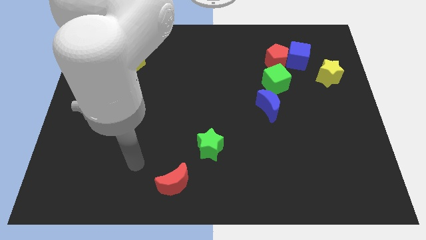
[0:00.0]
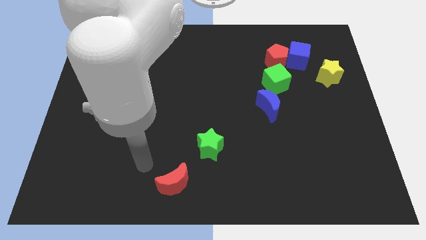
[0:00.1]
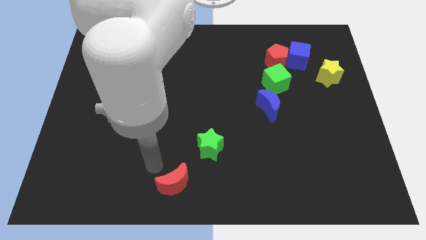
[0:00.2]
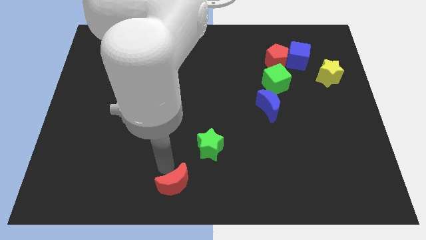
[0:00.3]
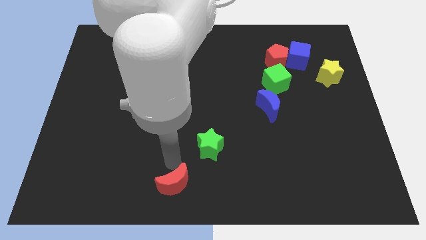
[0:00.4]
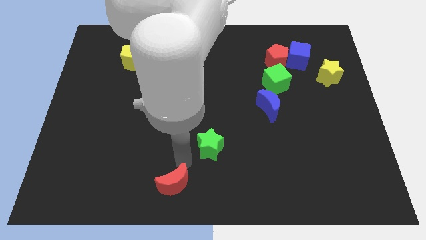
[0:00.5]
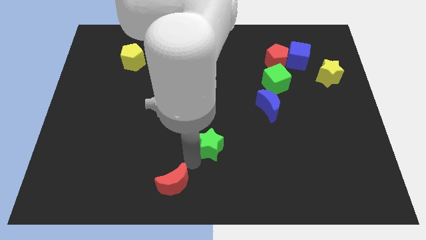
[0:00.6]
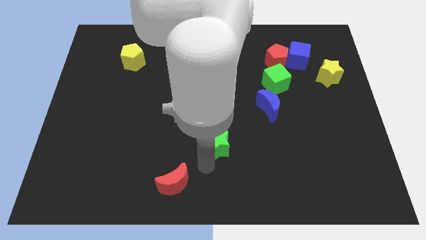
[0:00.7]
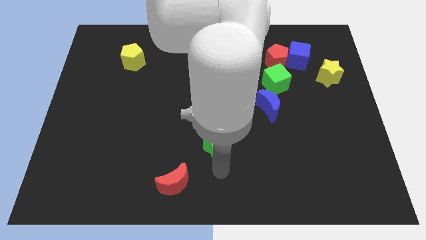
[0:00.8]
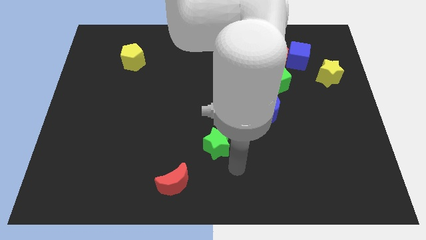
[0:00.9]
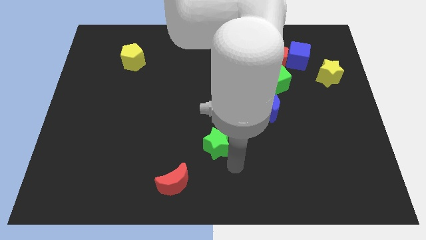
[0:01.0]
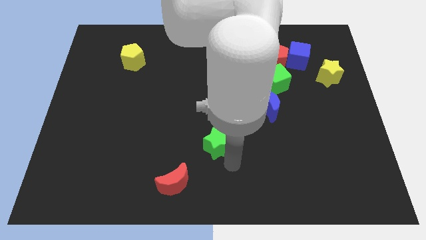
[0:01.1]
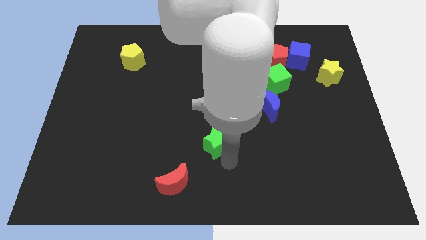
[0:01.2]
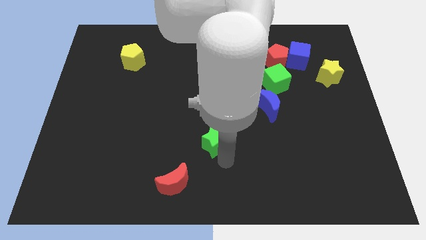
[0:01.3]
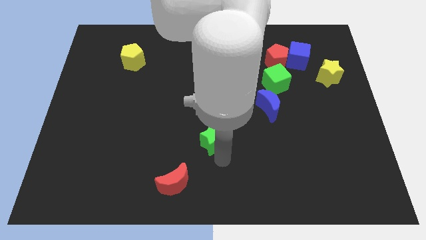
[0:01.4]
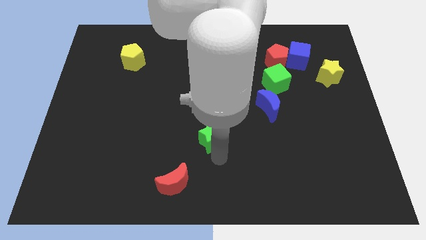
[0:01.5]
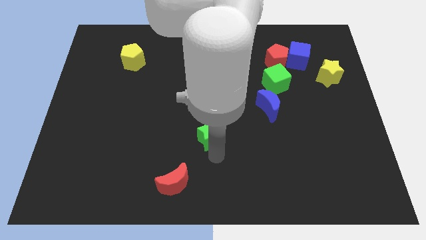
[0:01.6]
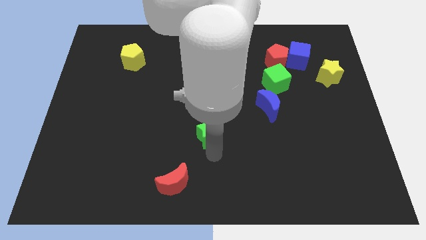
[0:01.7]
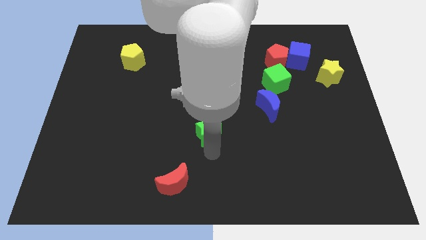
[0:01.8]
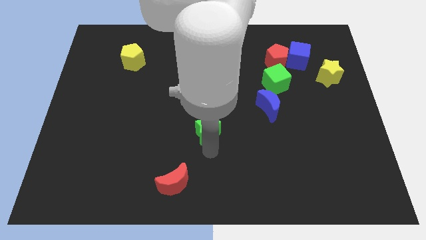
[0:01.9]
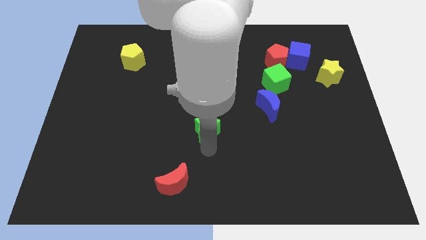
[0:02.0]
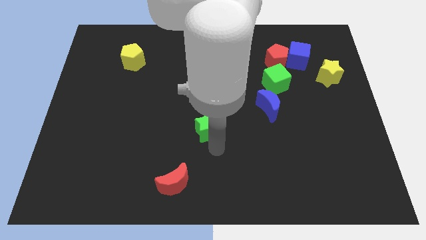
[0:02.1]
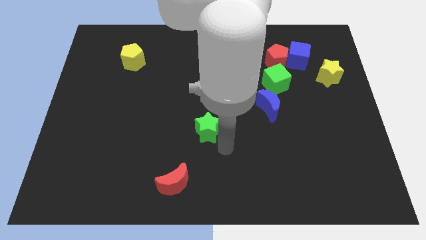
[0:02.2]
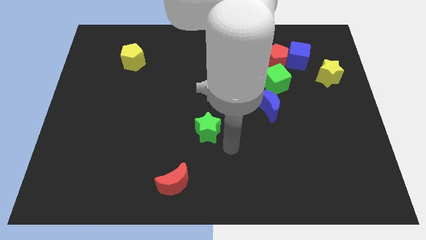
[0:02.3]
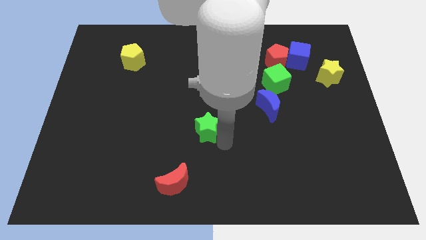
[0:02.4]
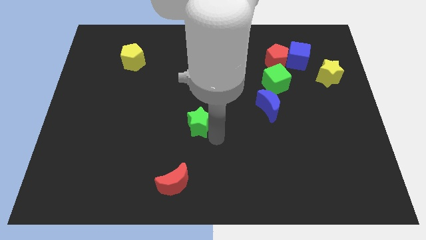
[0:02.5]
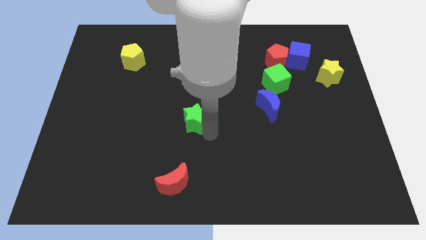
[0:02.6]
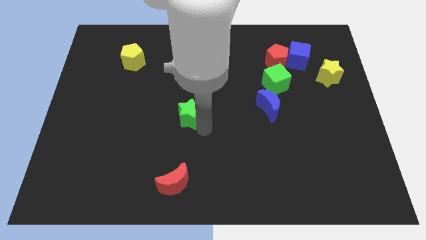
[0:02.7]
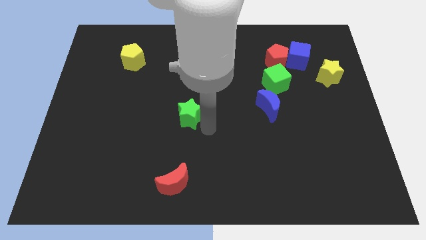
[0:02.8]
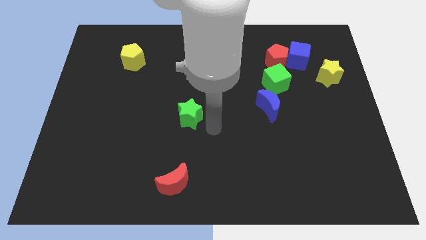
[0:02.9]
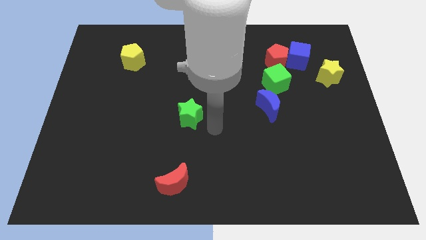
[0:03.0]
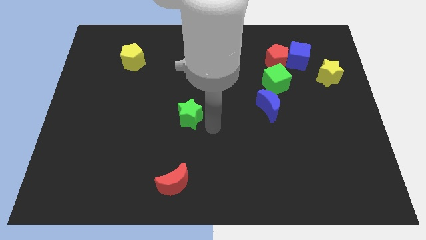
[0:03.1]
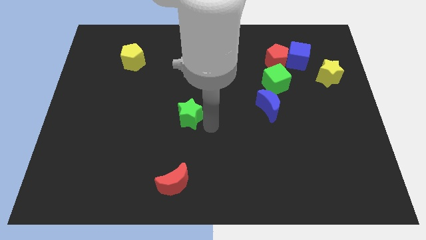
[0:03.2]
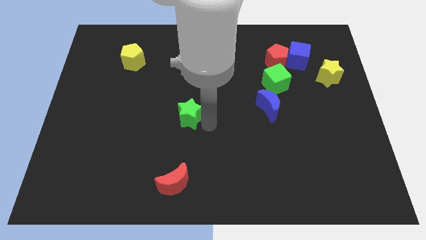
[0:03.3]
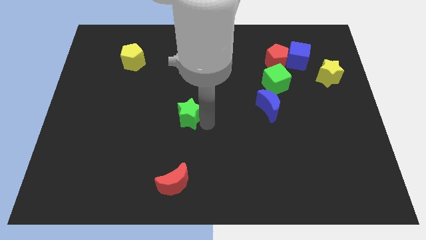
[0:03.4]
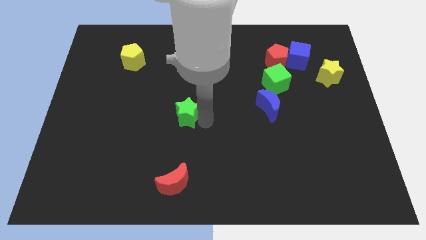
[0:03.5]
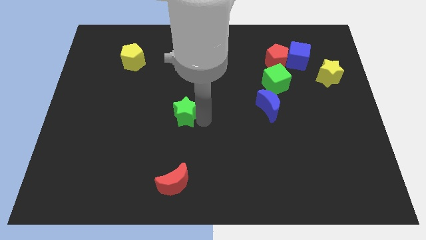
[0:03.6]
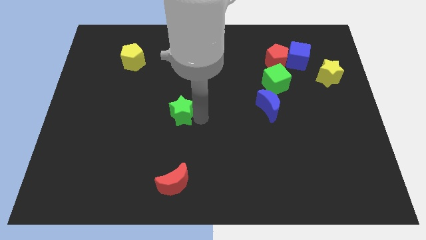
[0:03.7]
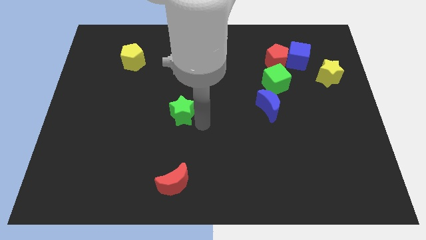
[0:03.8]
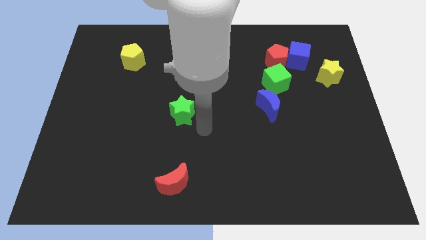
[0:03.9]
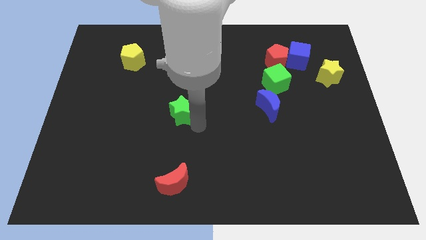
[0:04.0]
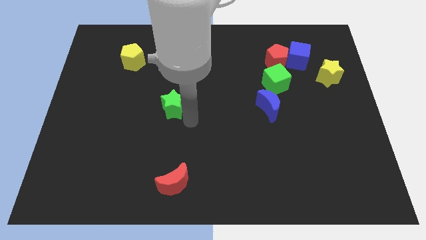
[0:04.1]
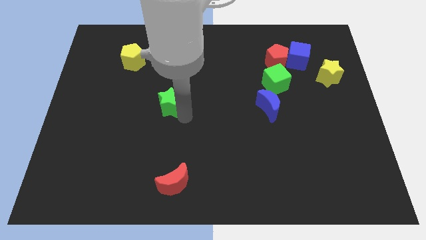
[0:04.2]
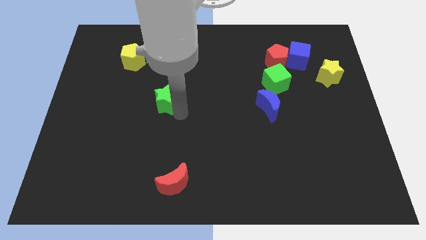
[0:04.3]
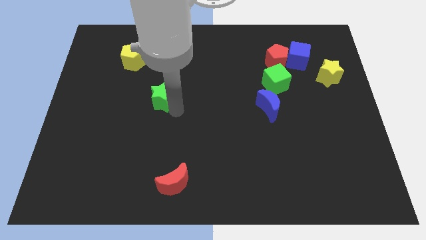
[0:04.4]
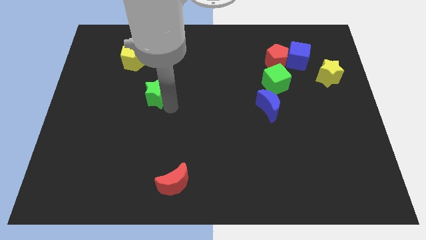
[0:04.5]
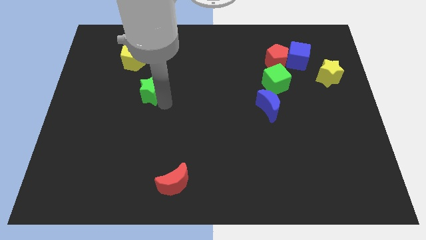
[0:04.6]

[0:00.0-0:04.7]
push the green star diagonally upwards and to the left

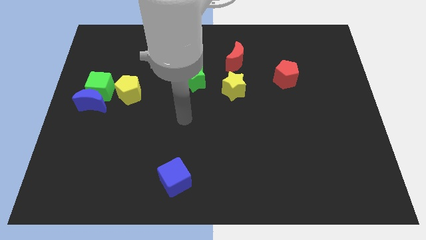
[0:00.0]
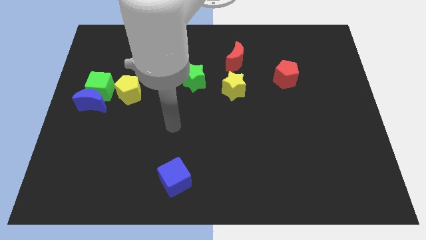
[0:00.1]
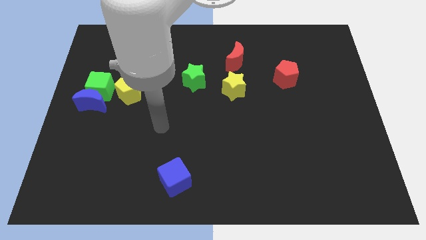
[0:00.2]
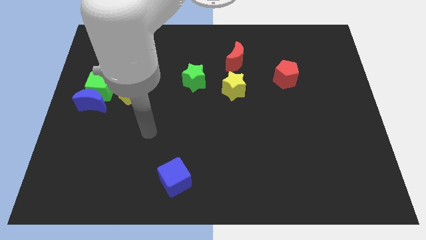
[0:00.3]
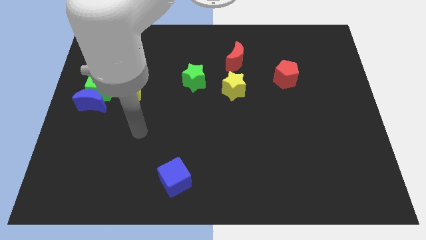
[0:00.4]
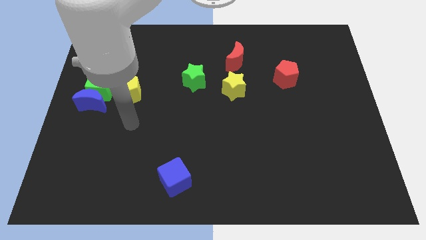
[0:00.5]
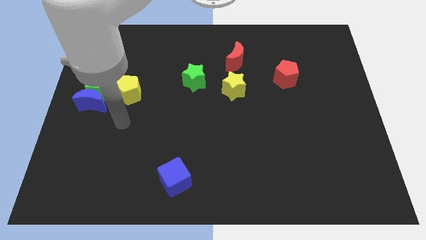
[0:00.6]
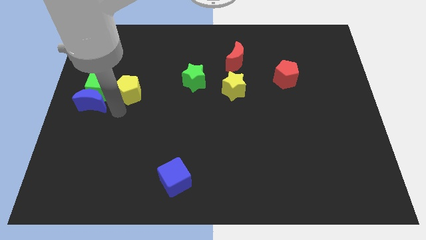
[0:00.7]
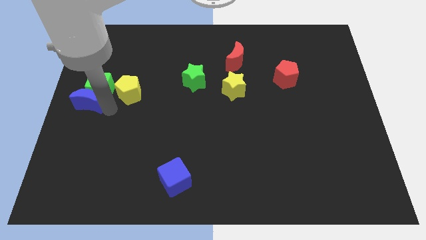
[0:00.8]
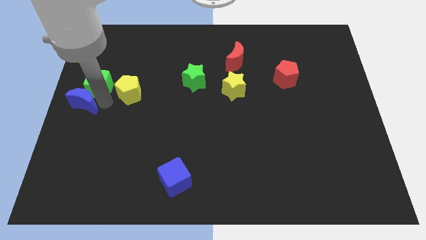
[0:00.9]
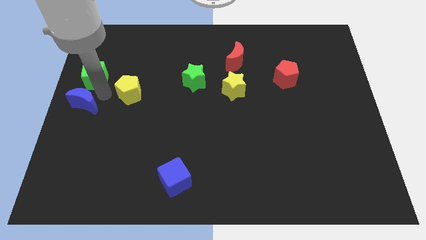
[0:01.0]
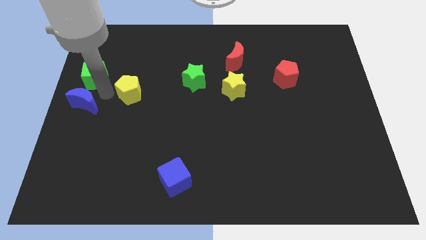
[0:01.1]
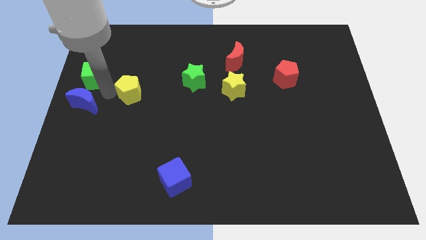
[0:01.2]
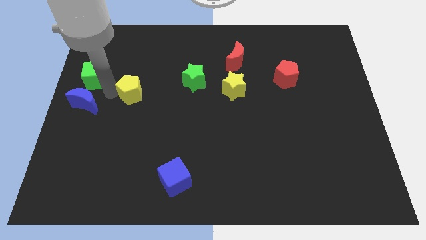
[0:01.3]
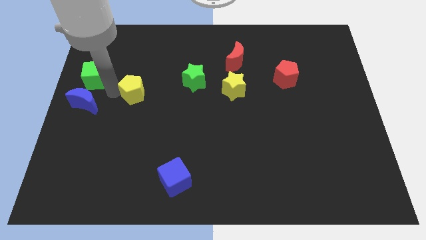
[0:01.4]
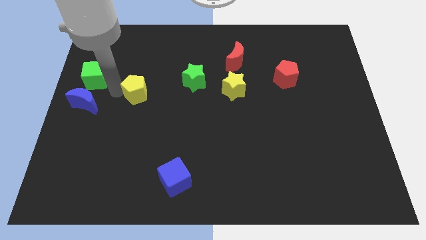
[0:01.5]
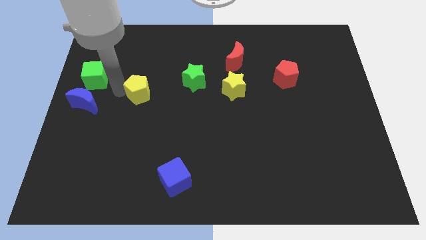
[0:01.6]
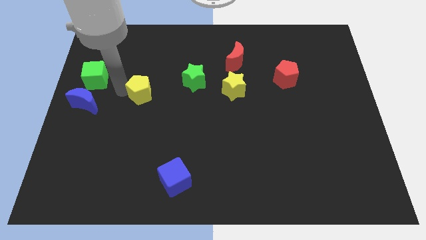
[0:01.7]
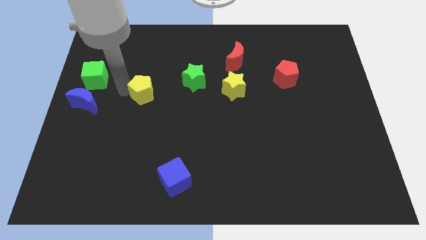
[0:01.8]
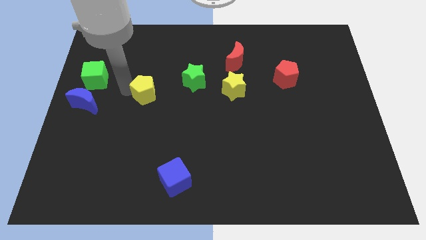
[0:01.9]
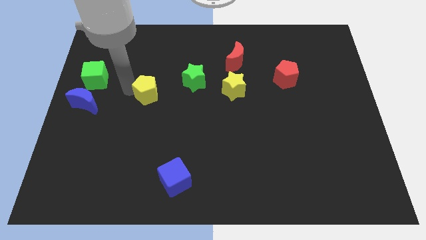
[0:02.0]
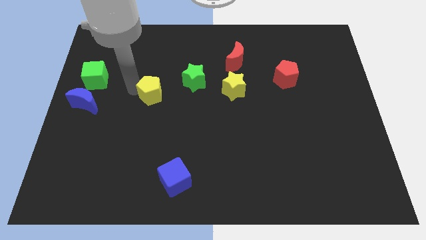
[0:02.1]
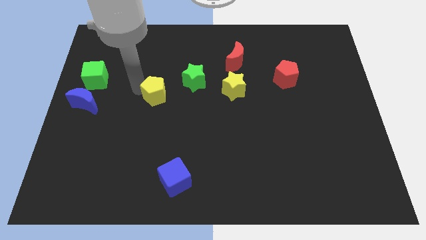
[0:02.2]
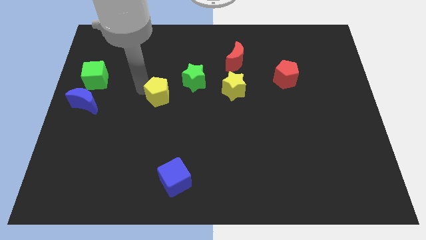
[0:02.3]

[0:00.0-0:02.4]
slide the yellow pentagon to the right a little bit

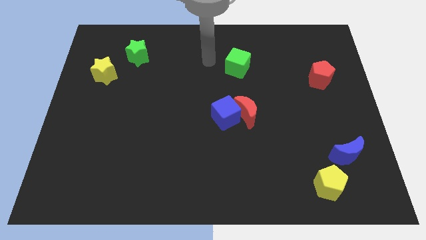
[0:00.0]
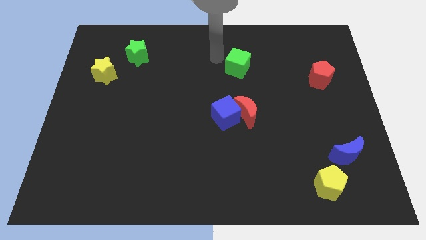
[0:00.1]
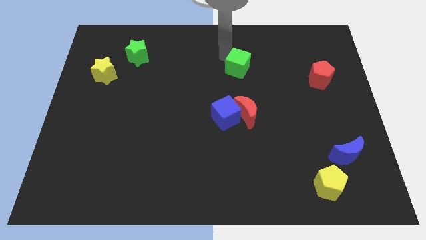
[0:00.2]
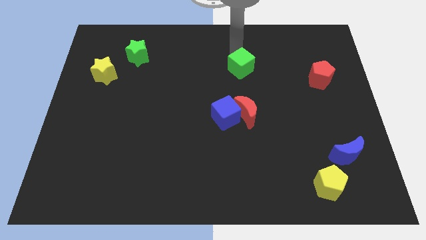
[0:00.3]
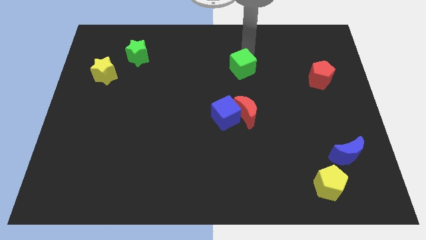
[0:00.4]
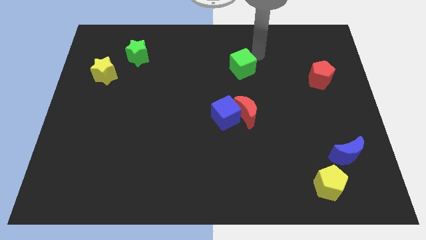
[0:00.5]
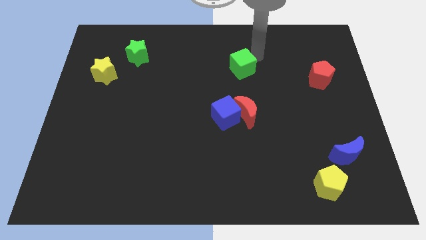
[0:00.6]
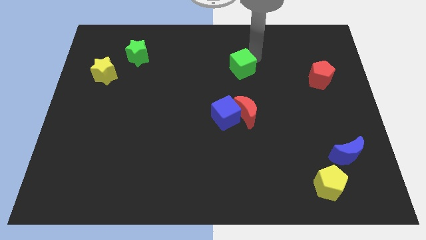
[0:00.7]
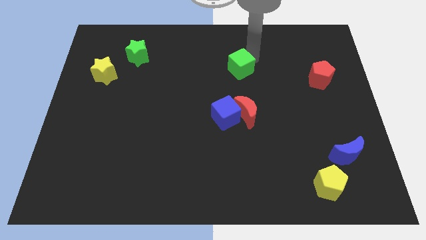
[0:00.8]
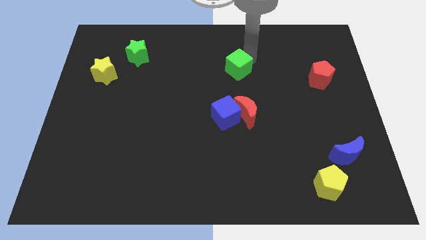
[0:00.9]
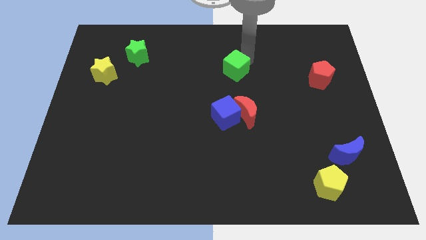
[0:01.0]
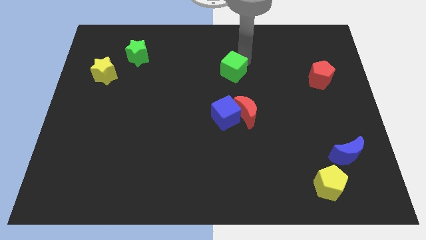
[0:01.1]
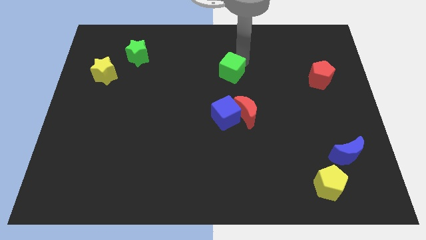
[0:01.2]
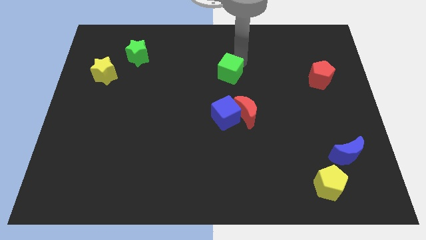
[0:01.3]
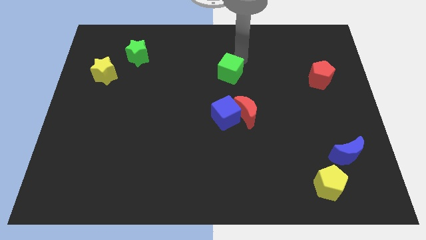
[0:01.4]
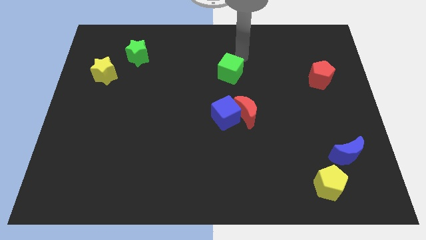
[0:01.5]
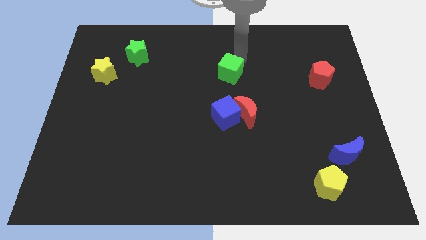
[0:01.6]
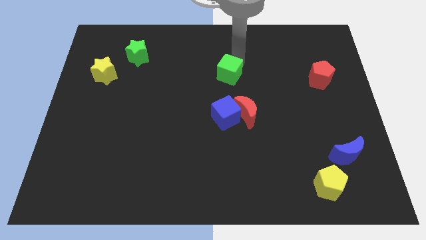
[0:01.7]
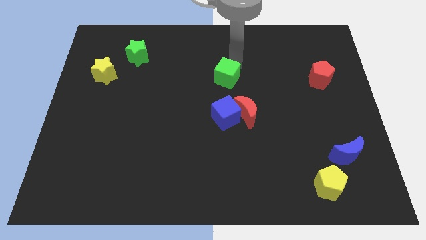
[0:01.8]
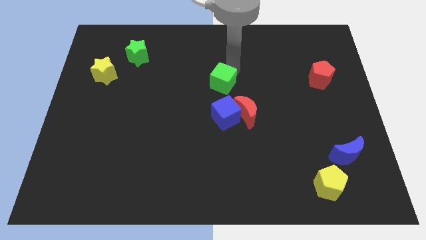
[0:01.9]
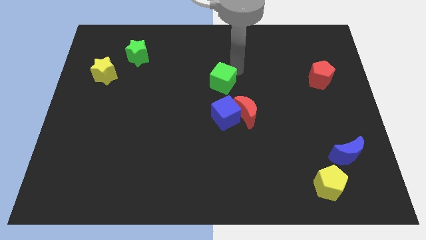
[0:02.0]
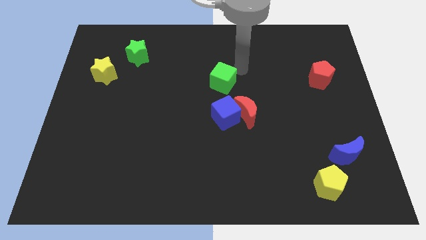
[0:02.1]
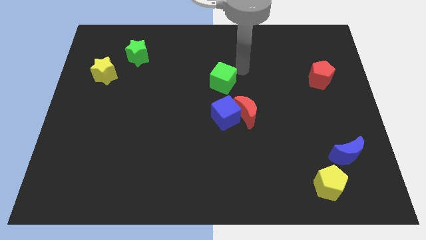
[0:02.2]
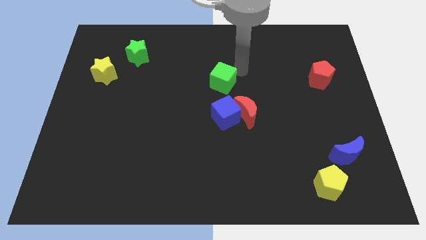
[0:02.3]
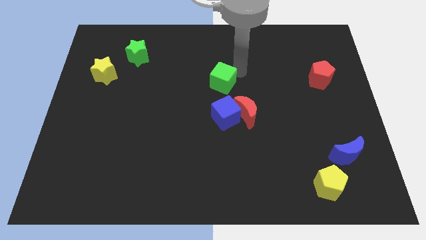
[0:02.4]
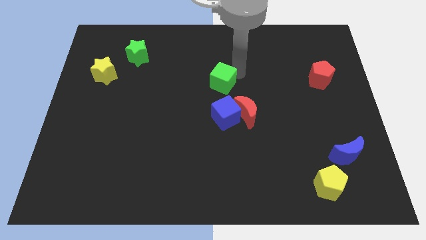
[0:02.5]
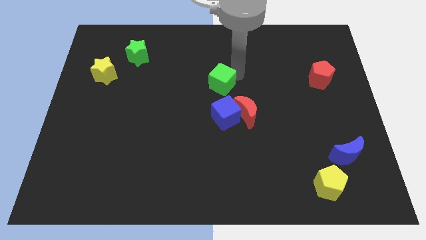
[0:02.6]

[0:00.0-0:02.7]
move the green cube down and to the left somewhat
